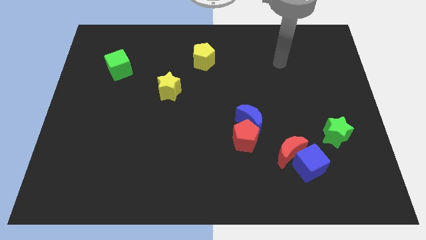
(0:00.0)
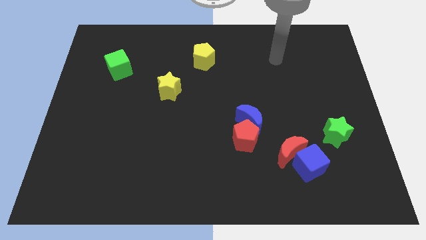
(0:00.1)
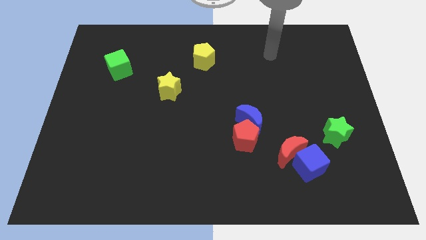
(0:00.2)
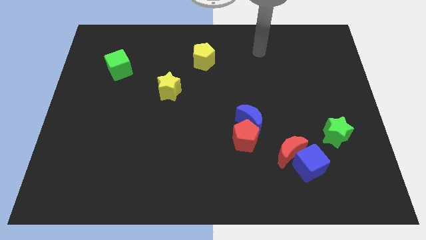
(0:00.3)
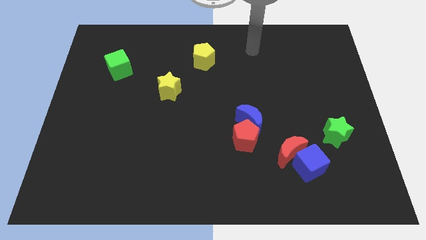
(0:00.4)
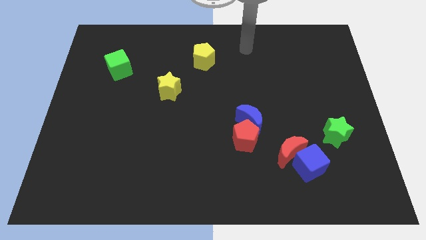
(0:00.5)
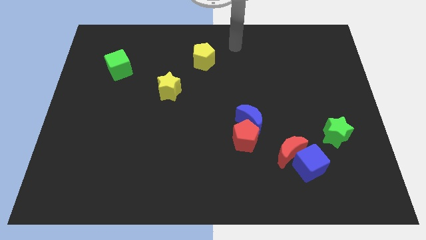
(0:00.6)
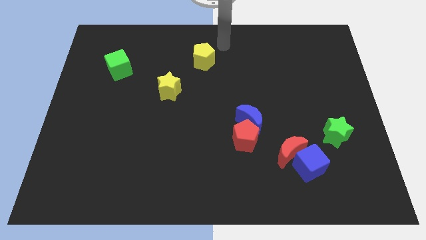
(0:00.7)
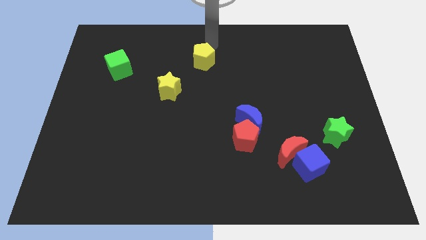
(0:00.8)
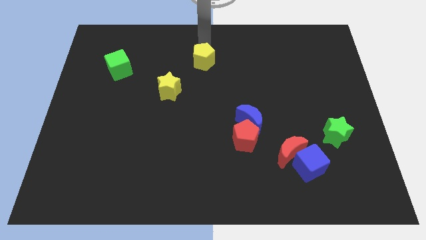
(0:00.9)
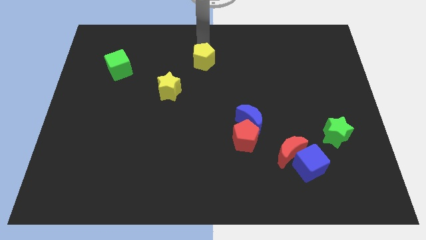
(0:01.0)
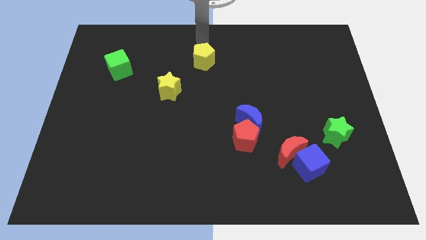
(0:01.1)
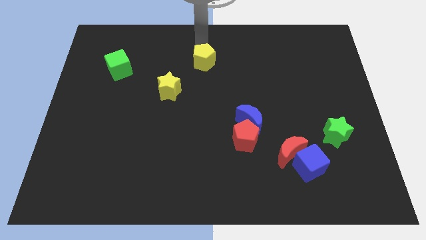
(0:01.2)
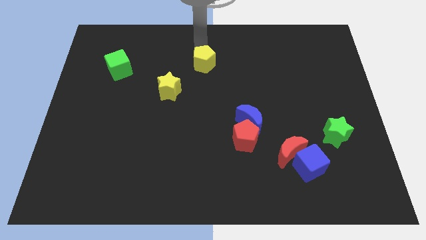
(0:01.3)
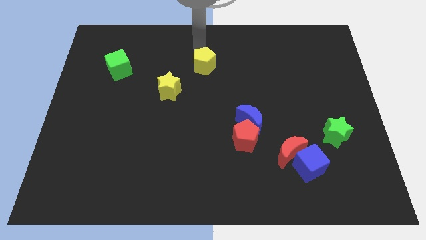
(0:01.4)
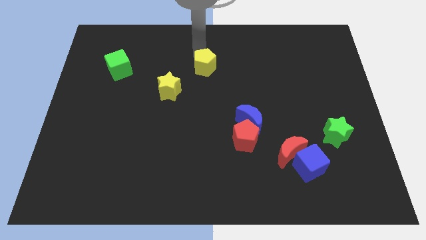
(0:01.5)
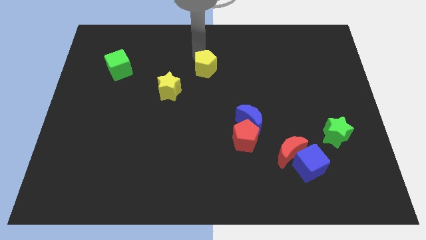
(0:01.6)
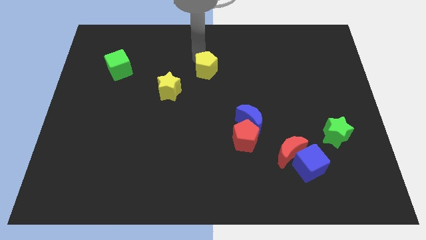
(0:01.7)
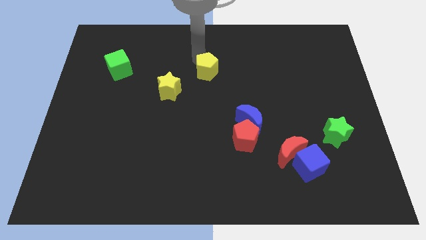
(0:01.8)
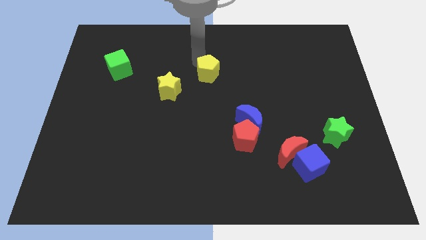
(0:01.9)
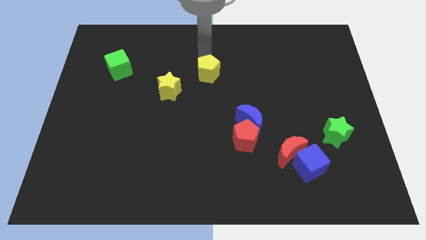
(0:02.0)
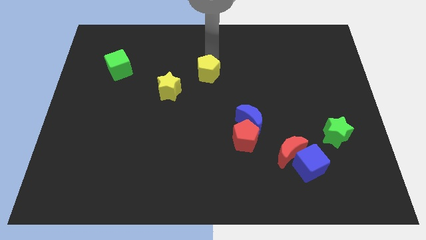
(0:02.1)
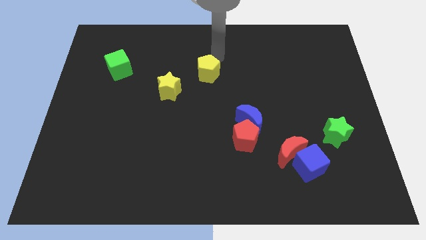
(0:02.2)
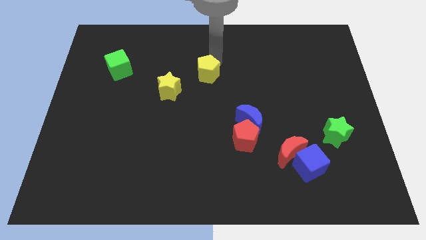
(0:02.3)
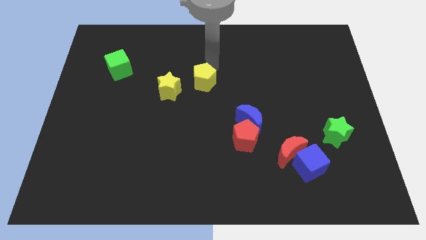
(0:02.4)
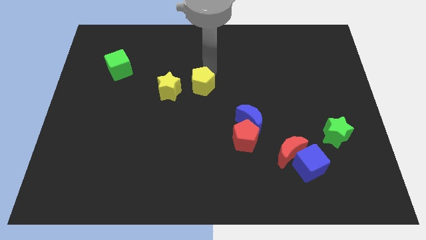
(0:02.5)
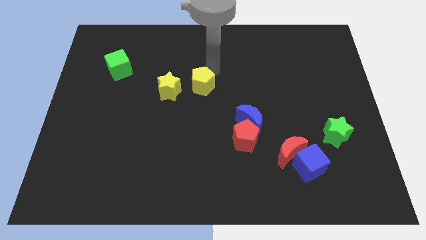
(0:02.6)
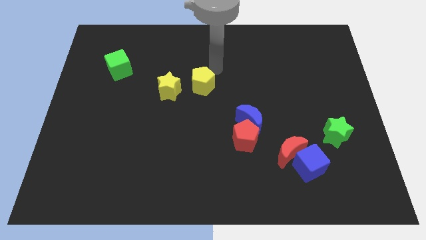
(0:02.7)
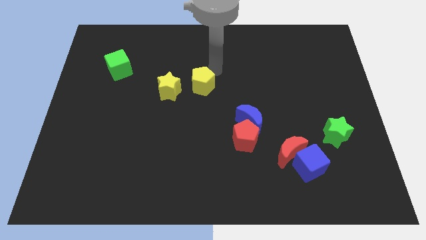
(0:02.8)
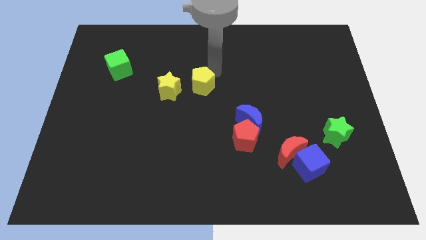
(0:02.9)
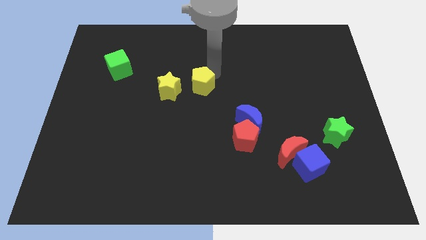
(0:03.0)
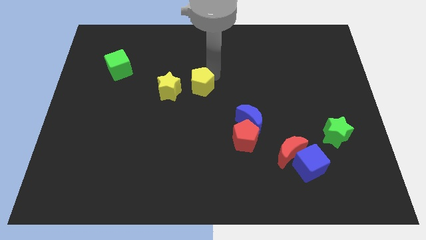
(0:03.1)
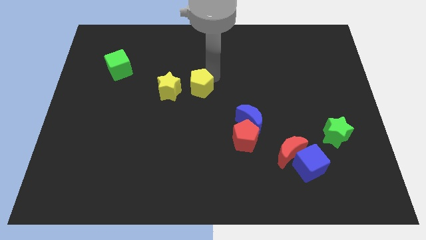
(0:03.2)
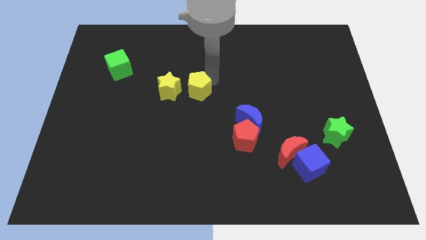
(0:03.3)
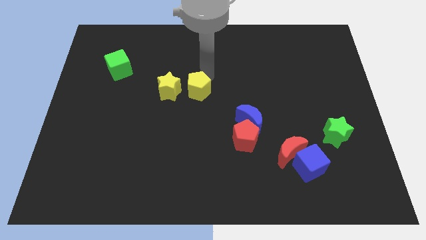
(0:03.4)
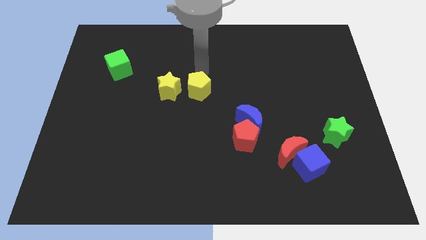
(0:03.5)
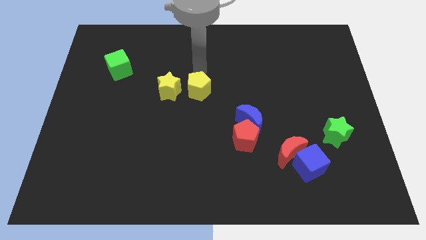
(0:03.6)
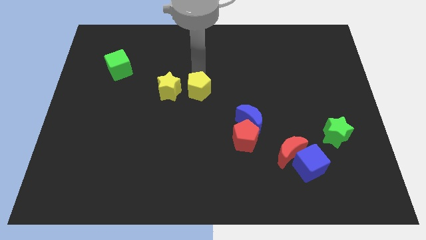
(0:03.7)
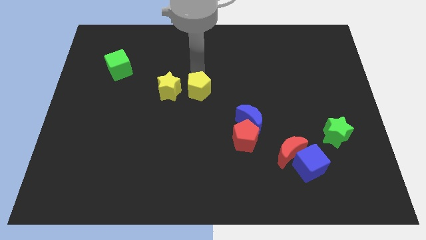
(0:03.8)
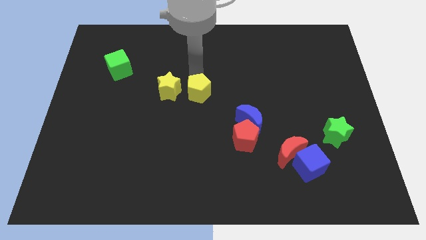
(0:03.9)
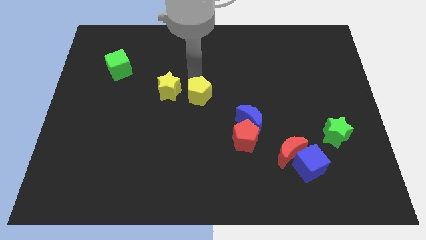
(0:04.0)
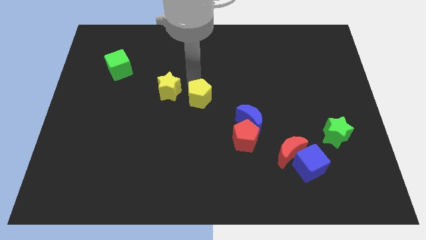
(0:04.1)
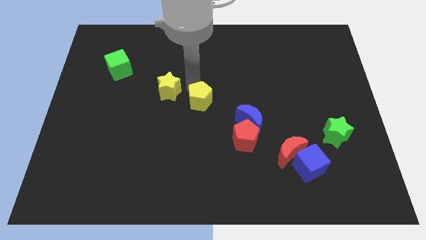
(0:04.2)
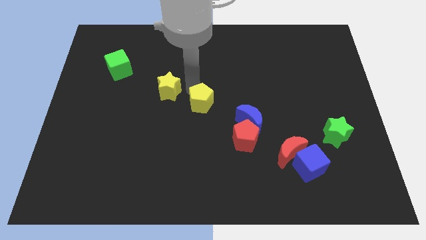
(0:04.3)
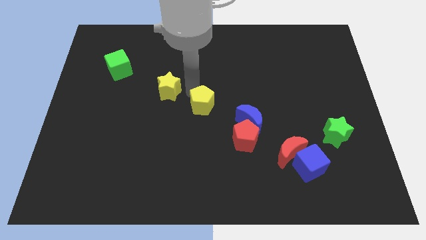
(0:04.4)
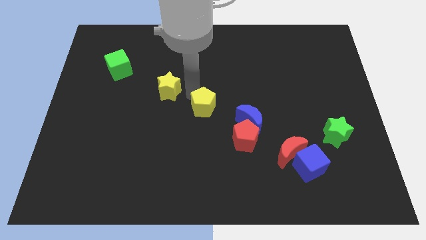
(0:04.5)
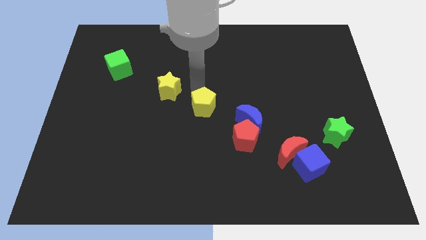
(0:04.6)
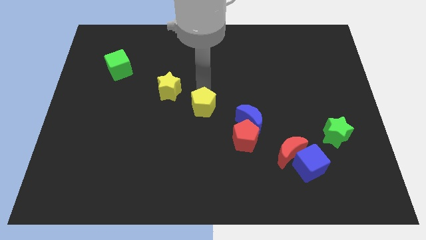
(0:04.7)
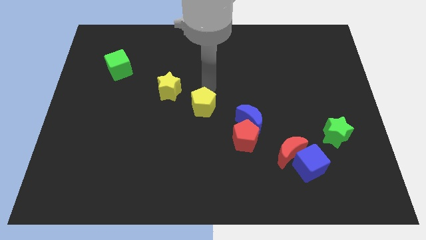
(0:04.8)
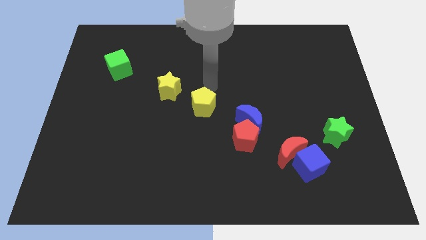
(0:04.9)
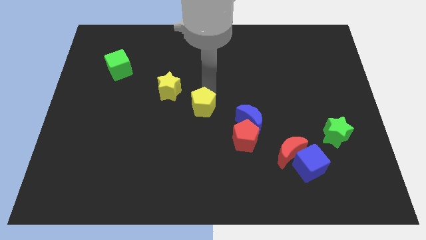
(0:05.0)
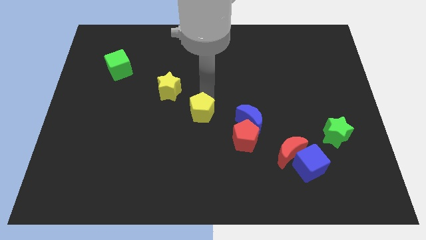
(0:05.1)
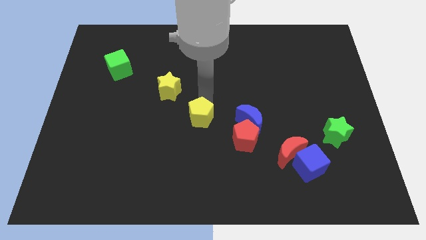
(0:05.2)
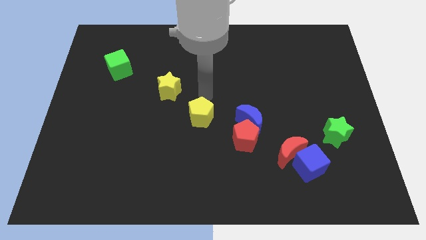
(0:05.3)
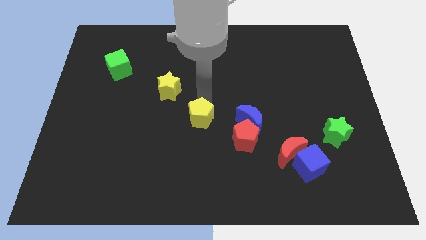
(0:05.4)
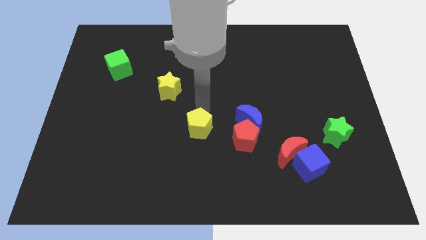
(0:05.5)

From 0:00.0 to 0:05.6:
slide the yellow pentagon downwards

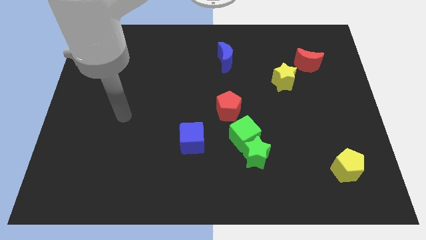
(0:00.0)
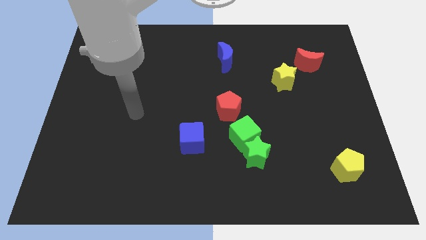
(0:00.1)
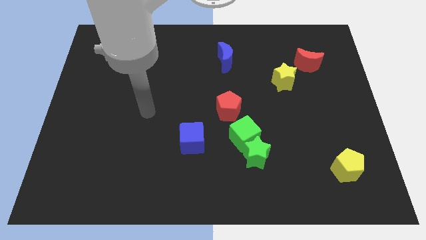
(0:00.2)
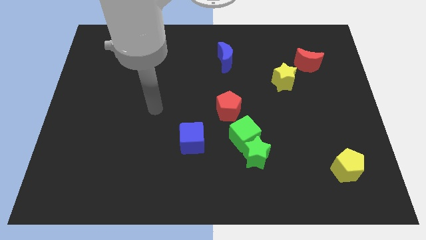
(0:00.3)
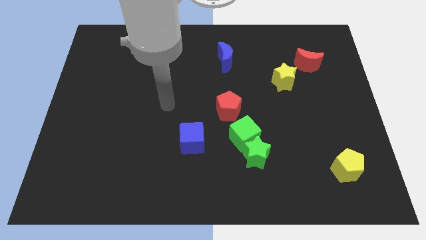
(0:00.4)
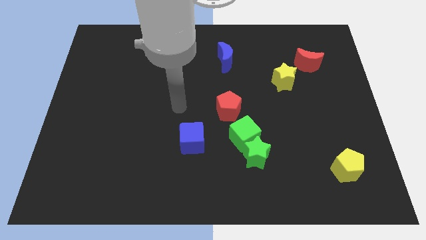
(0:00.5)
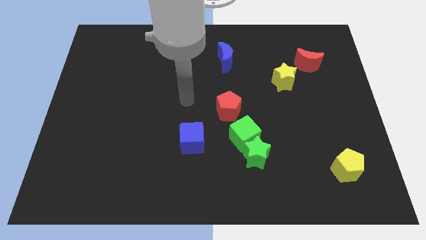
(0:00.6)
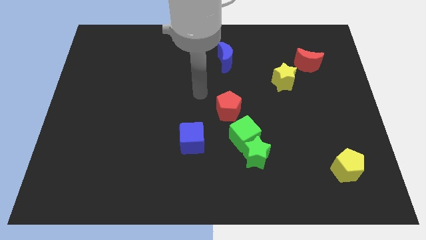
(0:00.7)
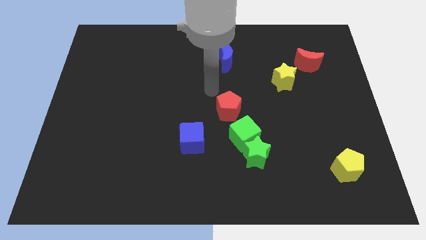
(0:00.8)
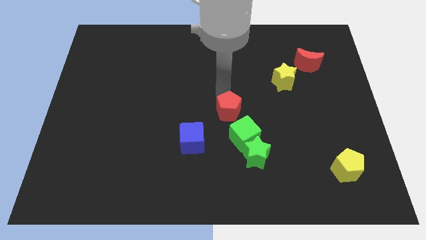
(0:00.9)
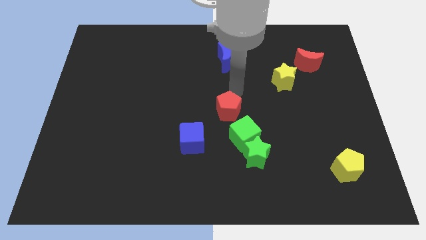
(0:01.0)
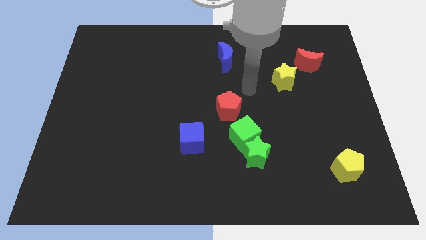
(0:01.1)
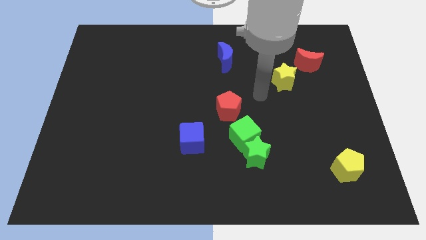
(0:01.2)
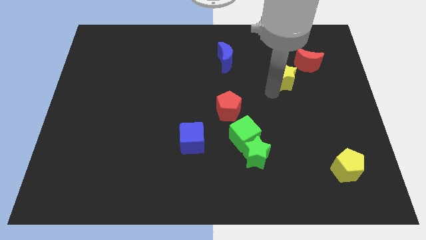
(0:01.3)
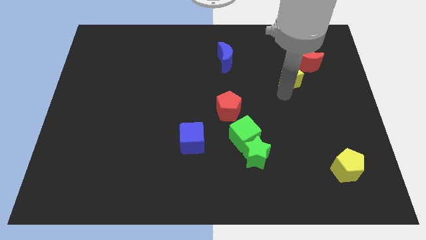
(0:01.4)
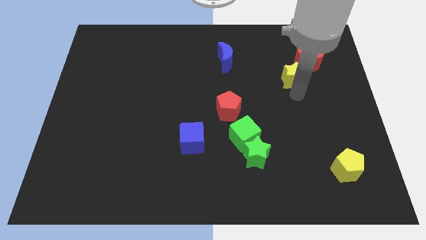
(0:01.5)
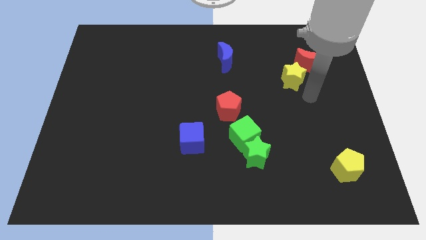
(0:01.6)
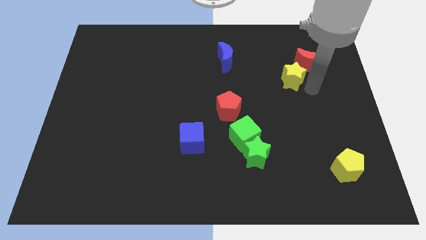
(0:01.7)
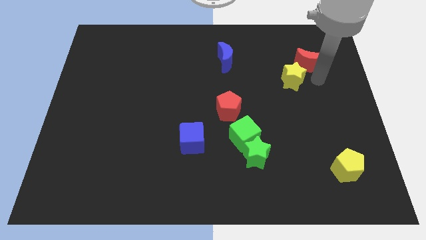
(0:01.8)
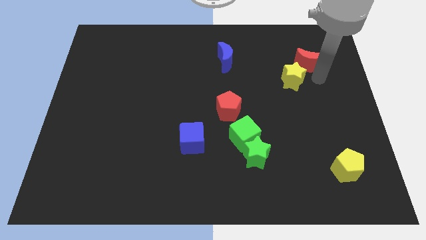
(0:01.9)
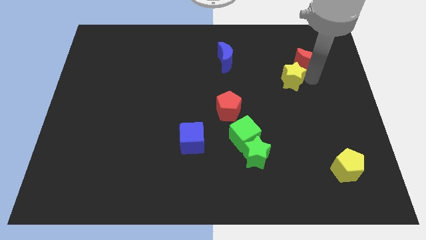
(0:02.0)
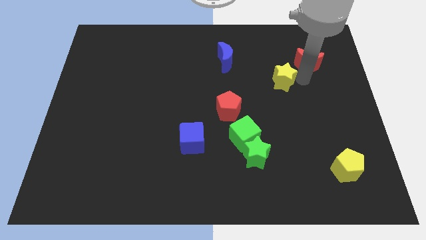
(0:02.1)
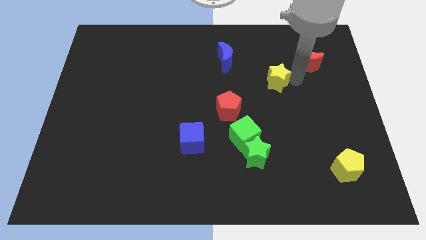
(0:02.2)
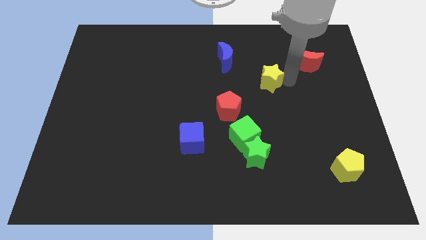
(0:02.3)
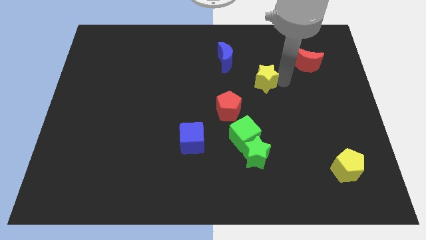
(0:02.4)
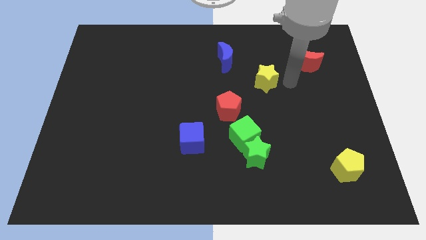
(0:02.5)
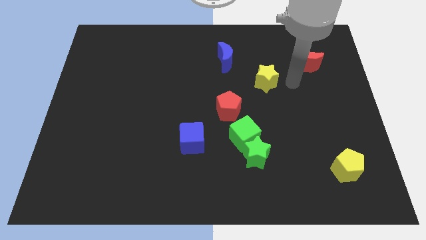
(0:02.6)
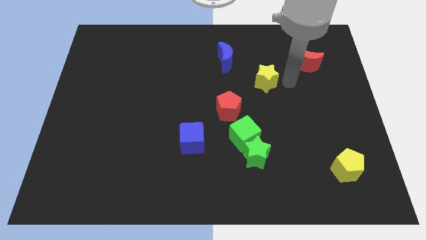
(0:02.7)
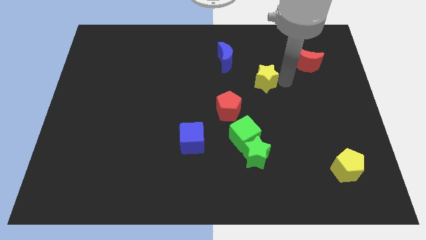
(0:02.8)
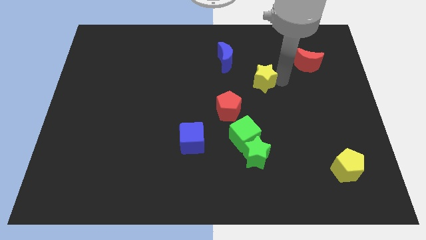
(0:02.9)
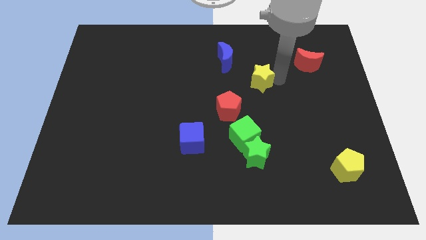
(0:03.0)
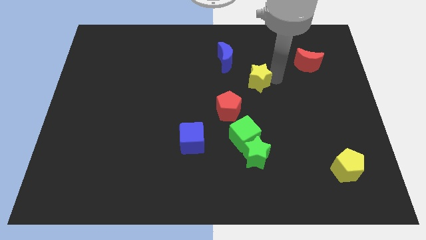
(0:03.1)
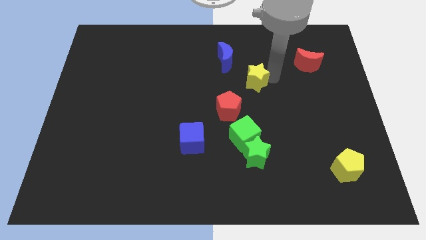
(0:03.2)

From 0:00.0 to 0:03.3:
slightly move the yellow star left
